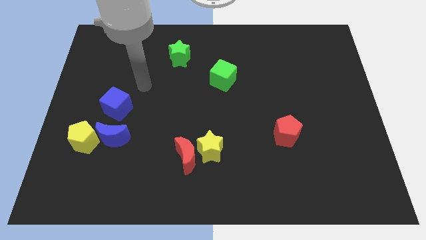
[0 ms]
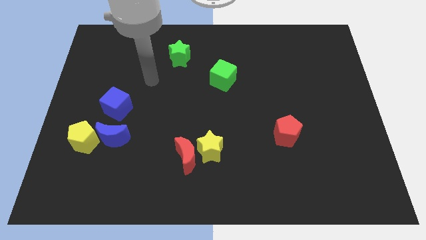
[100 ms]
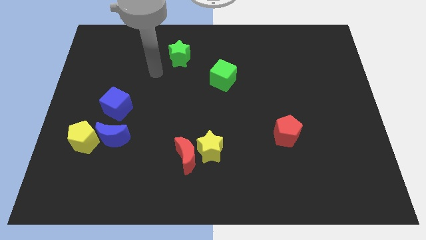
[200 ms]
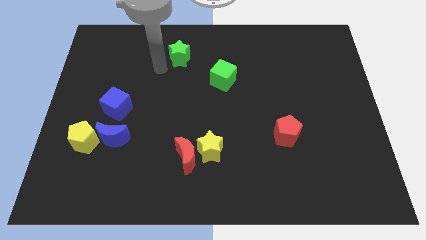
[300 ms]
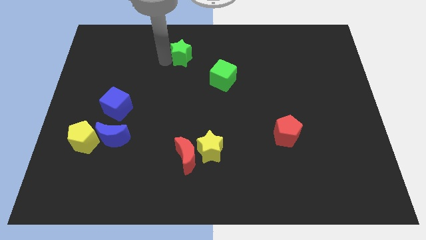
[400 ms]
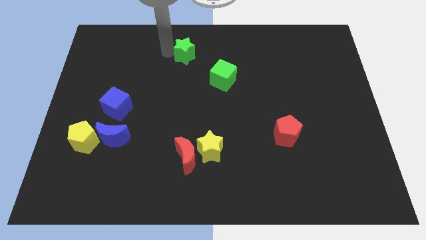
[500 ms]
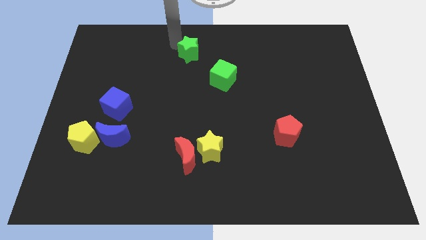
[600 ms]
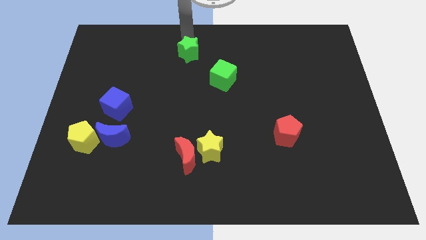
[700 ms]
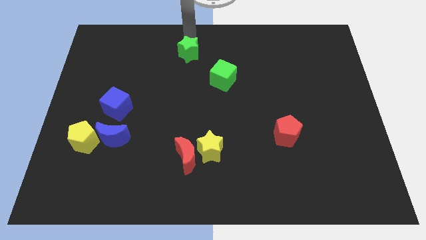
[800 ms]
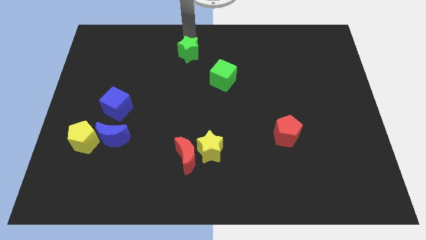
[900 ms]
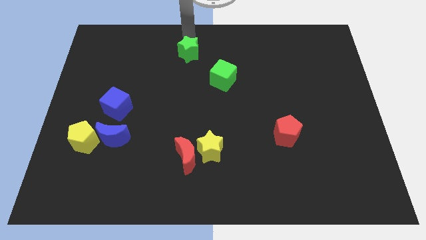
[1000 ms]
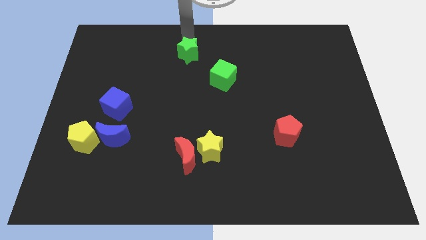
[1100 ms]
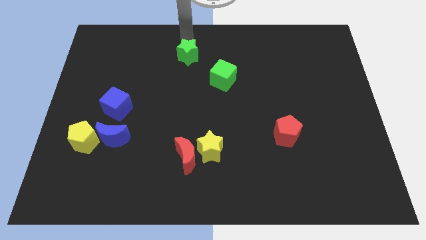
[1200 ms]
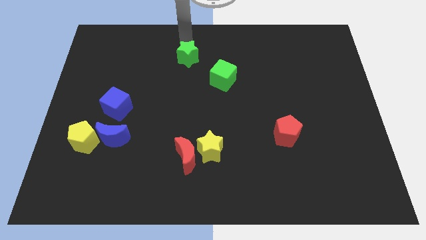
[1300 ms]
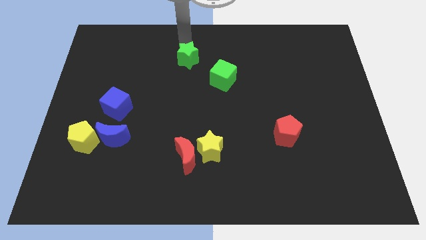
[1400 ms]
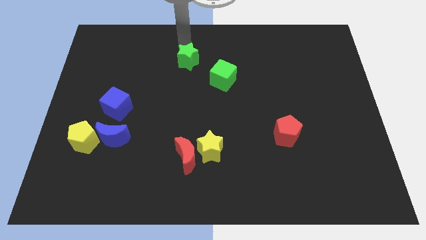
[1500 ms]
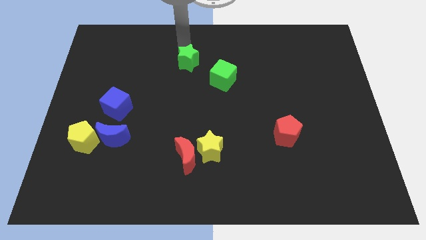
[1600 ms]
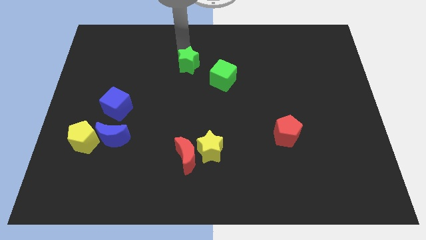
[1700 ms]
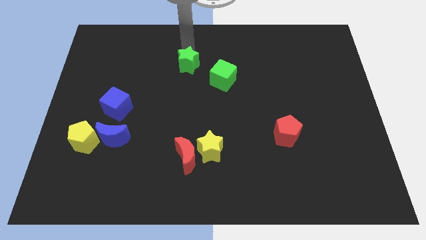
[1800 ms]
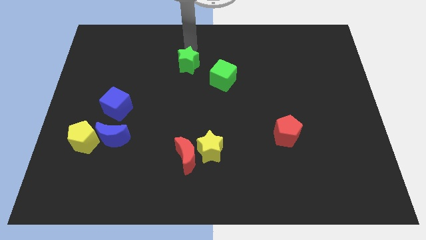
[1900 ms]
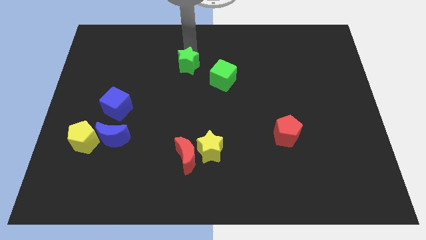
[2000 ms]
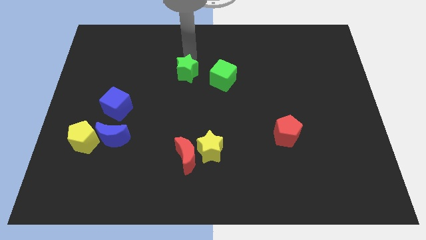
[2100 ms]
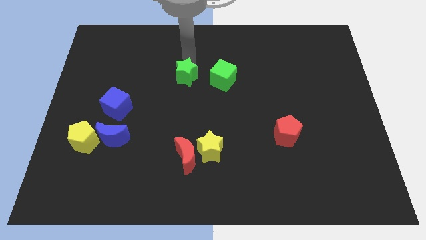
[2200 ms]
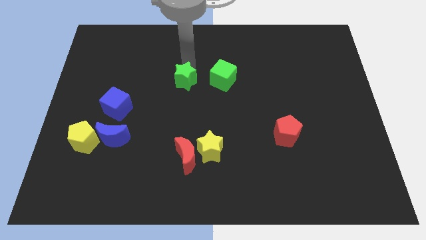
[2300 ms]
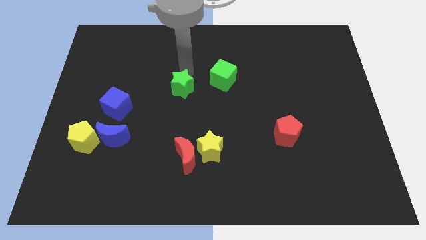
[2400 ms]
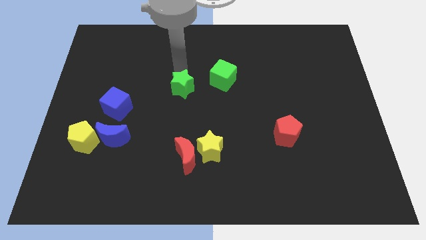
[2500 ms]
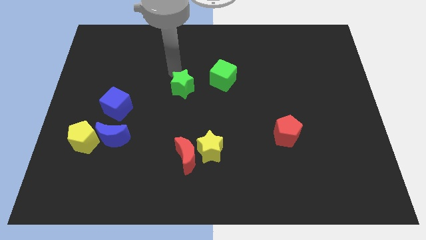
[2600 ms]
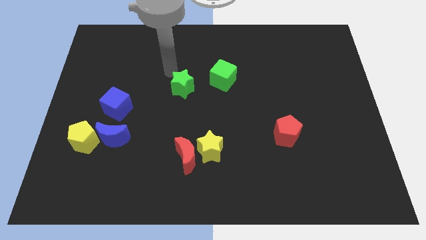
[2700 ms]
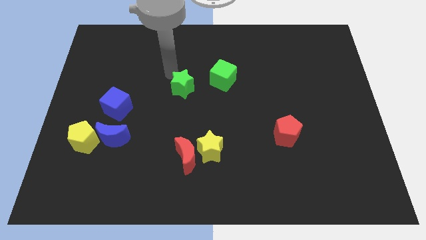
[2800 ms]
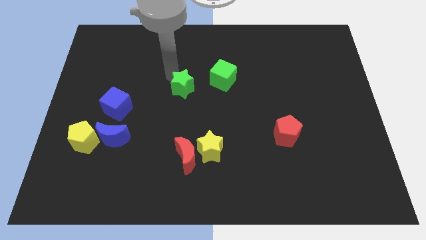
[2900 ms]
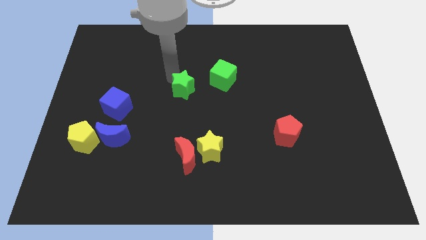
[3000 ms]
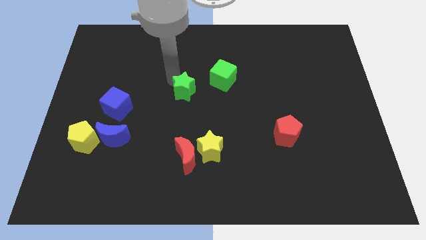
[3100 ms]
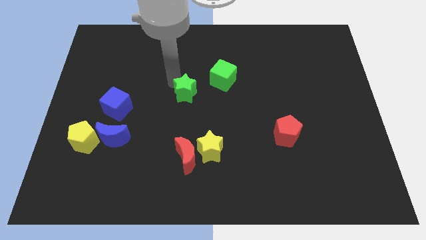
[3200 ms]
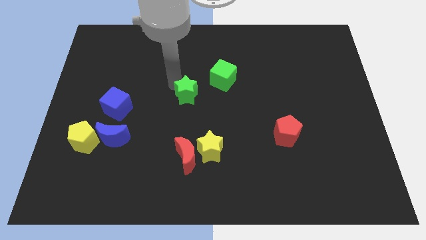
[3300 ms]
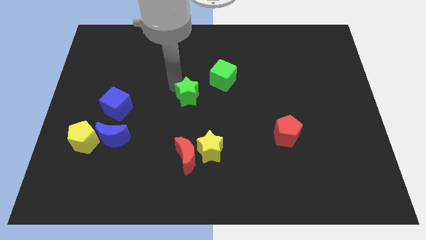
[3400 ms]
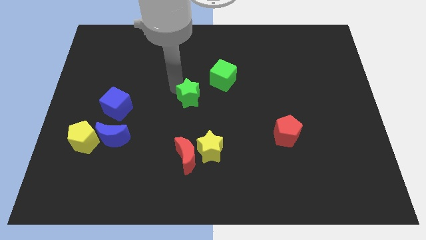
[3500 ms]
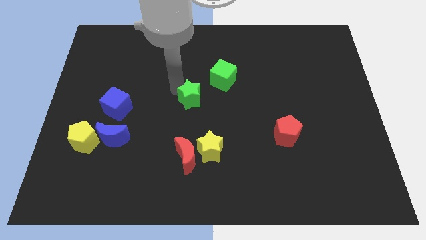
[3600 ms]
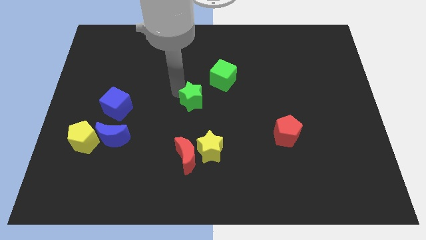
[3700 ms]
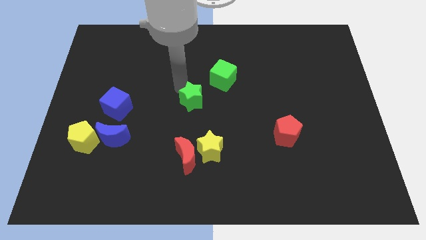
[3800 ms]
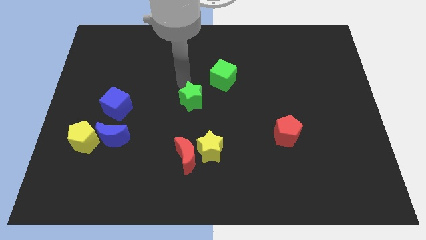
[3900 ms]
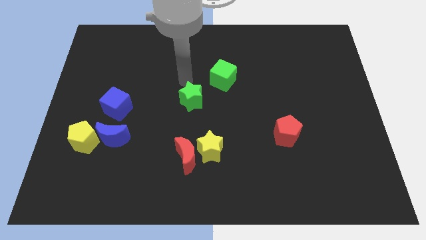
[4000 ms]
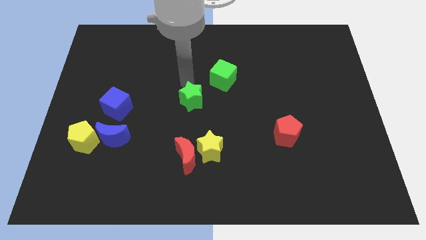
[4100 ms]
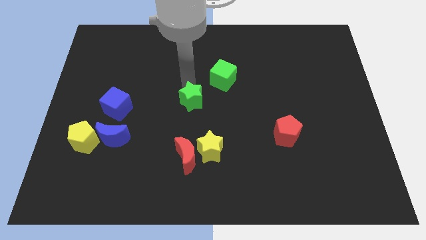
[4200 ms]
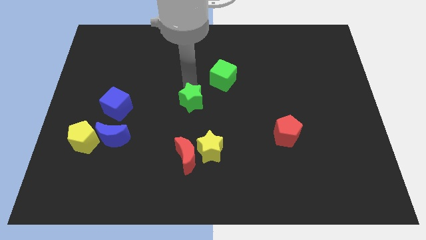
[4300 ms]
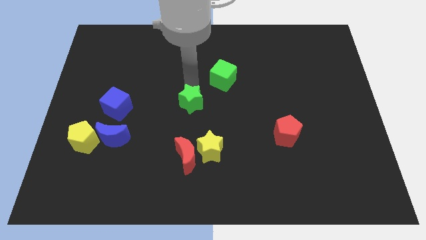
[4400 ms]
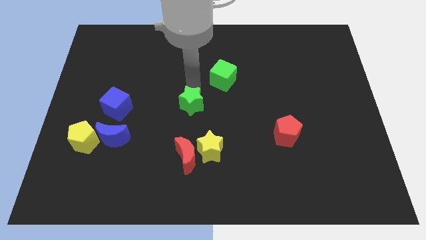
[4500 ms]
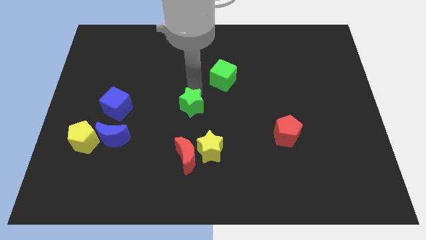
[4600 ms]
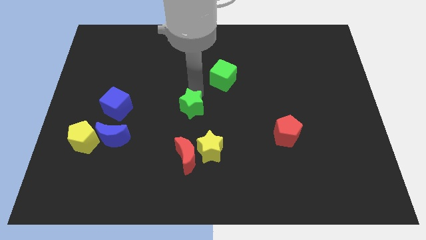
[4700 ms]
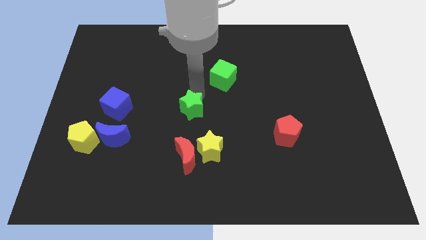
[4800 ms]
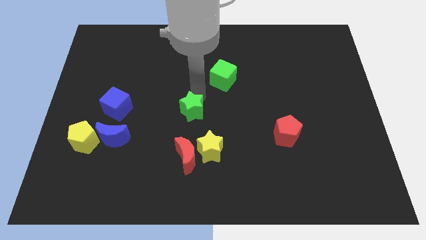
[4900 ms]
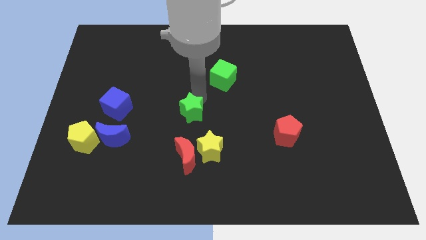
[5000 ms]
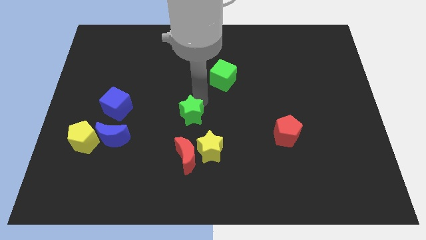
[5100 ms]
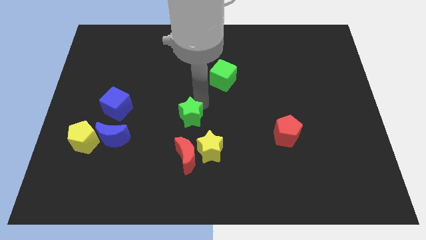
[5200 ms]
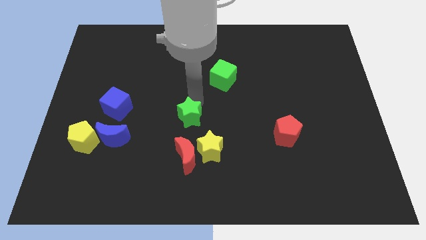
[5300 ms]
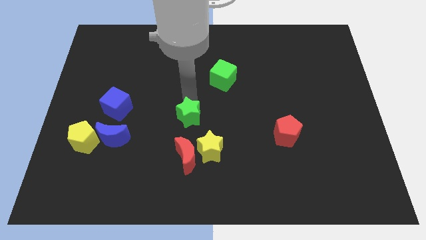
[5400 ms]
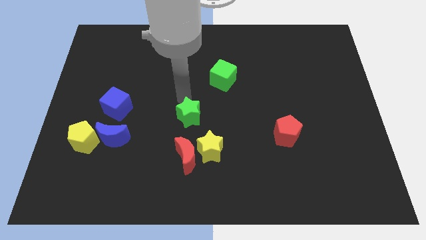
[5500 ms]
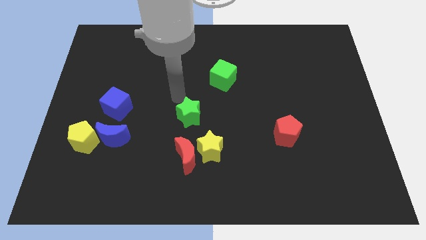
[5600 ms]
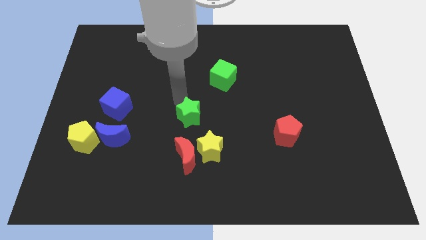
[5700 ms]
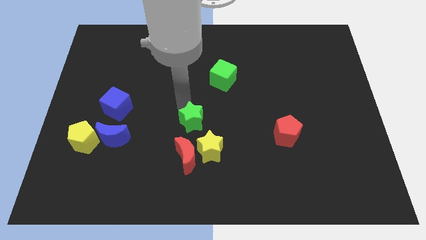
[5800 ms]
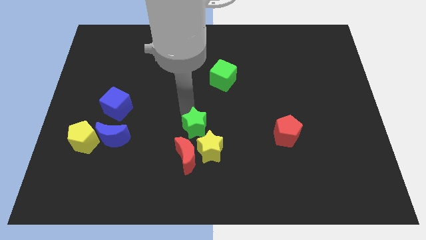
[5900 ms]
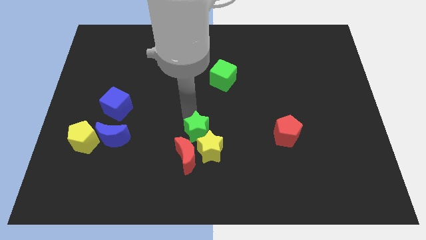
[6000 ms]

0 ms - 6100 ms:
slide the green star close to the yellow star
